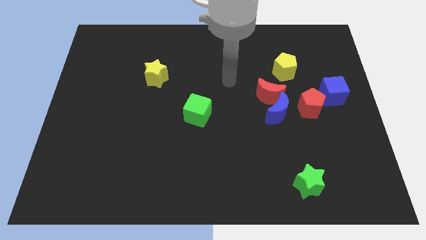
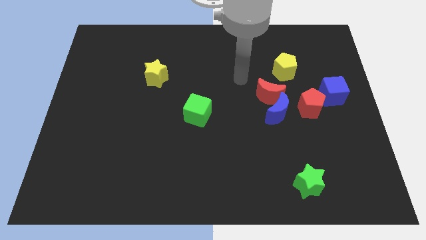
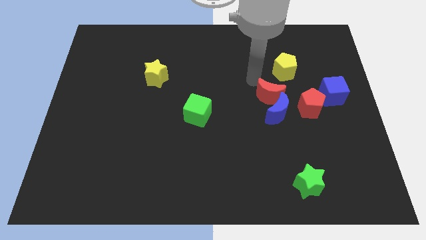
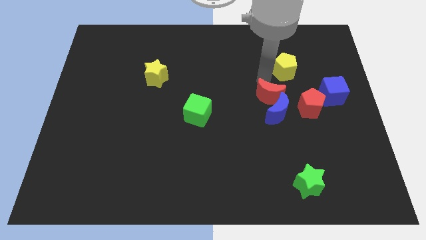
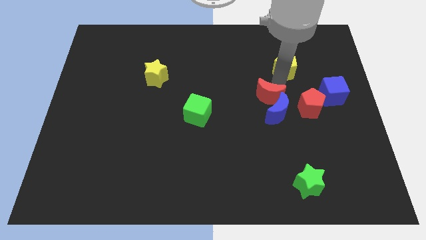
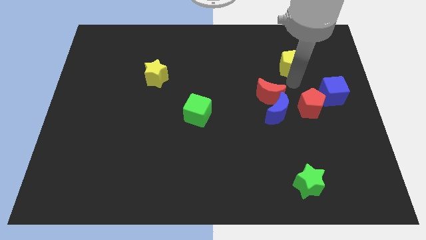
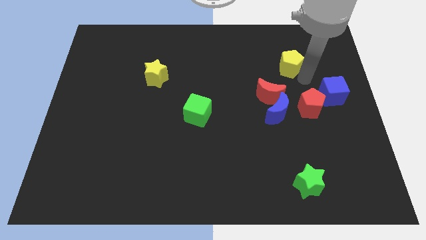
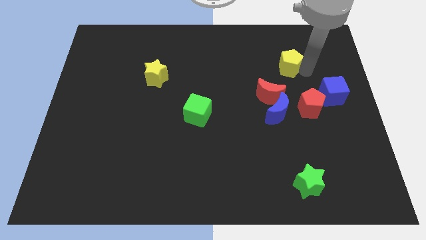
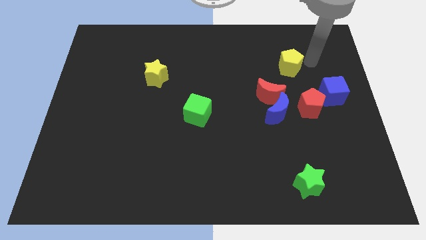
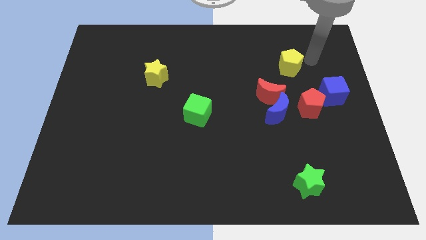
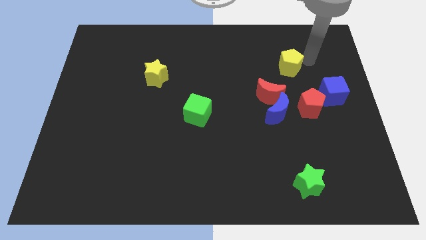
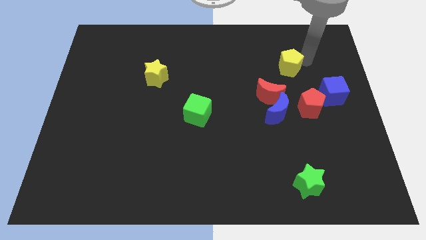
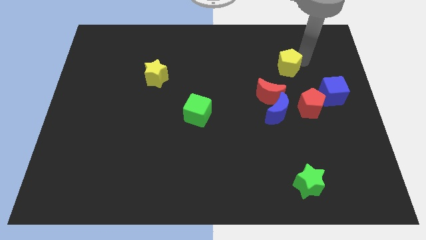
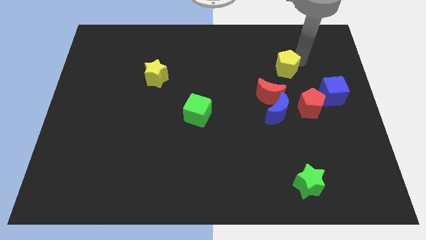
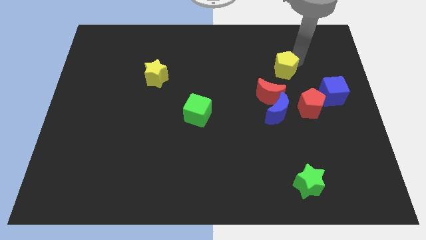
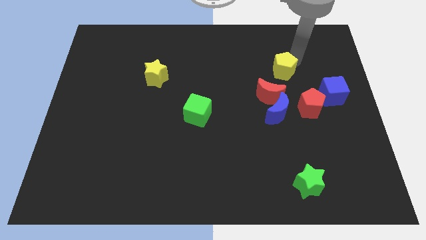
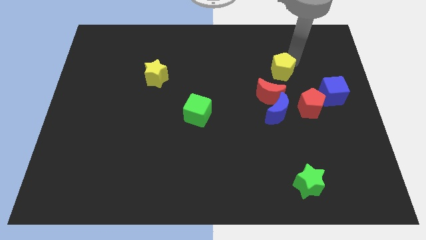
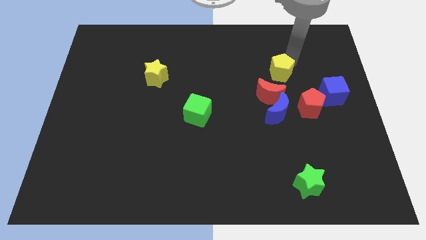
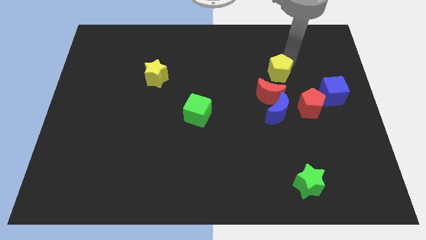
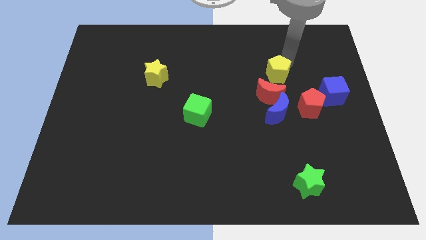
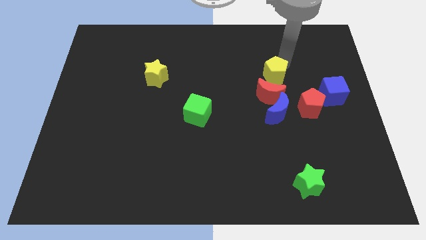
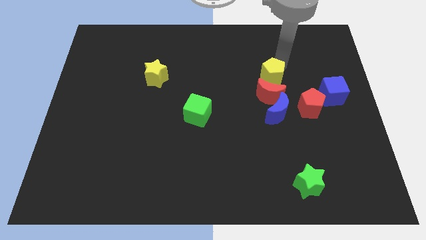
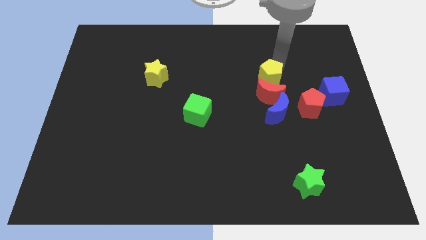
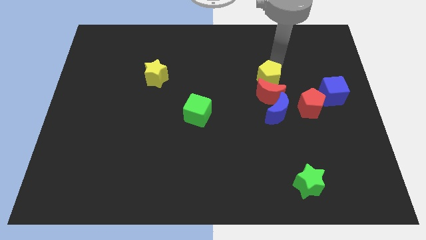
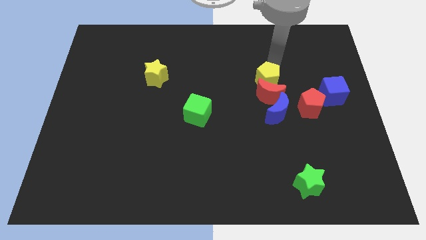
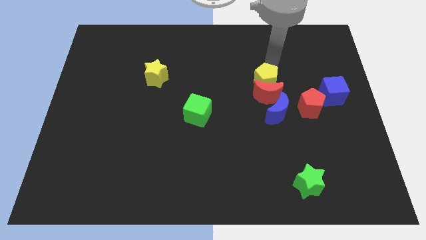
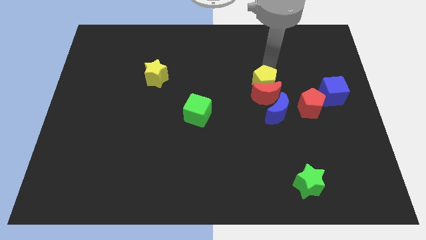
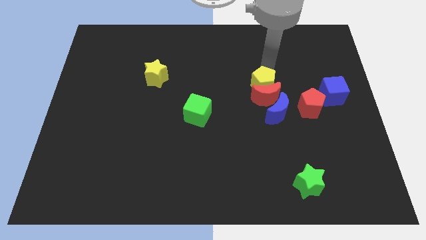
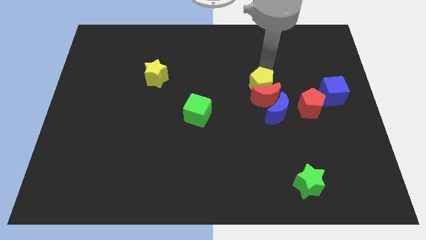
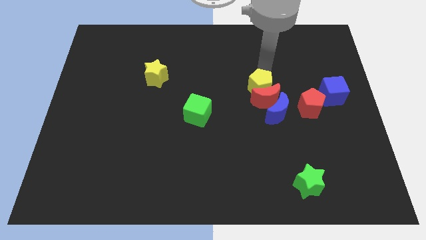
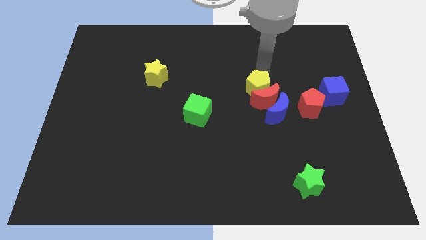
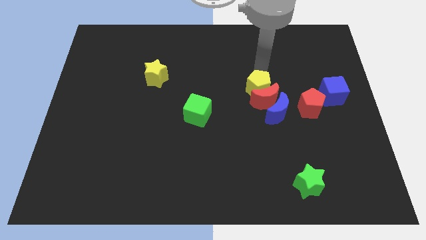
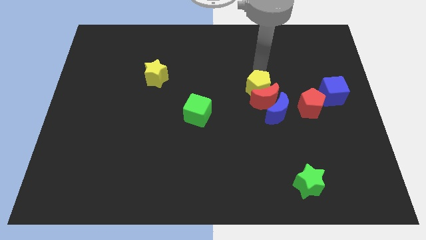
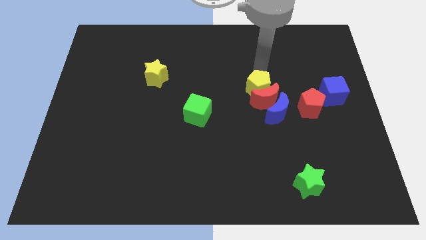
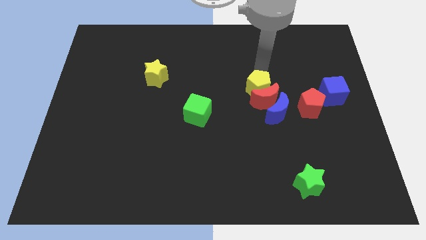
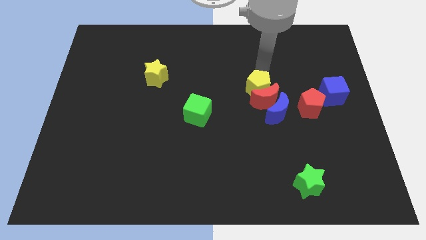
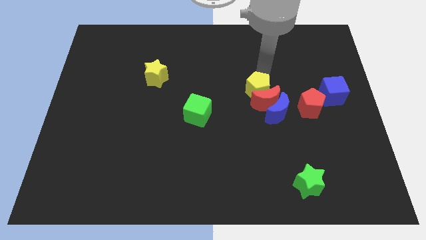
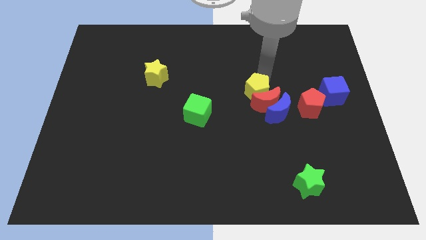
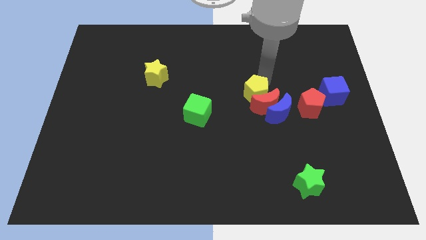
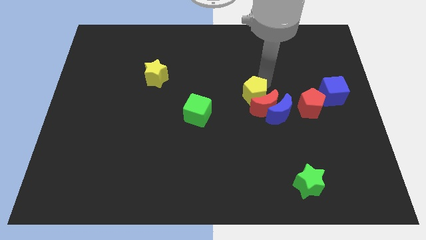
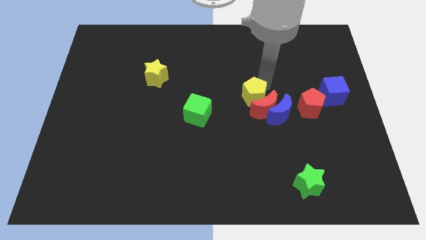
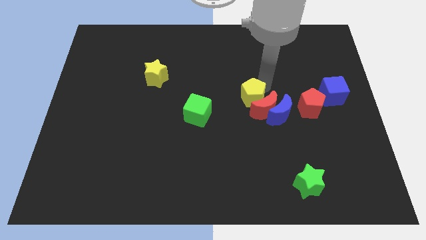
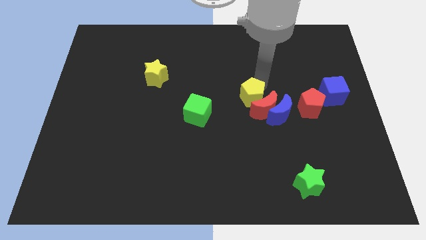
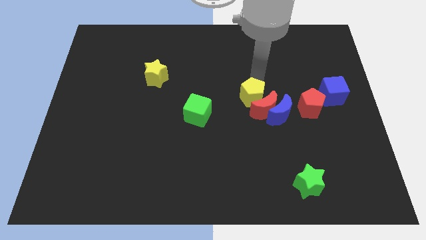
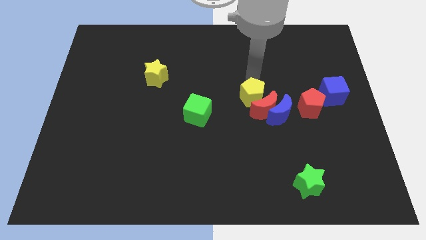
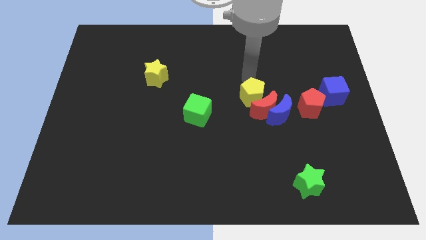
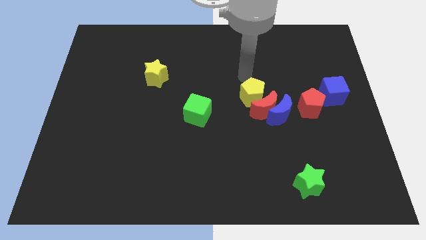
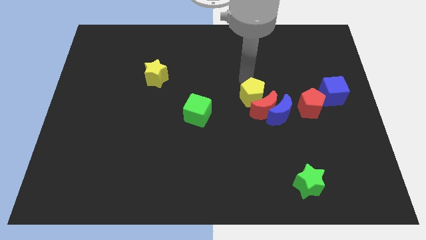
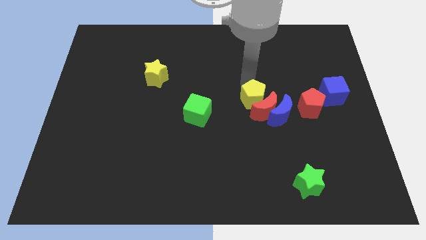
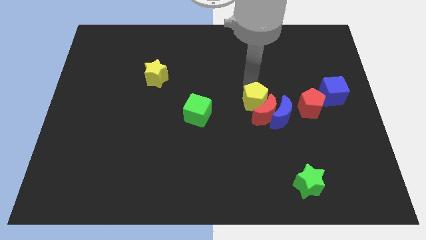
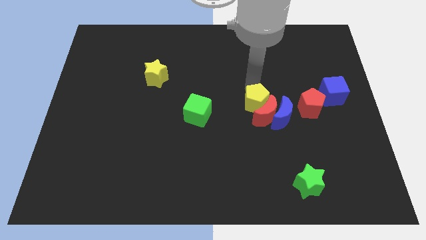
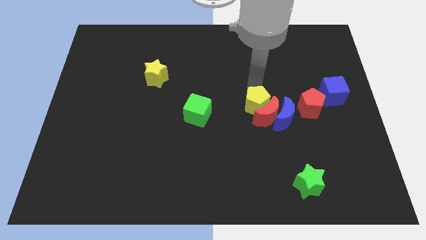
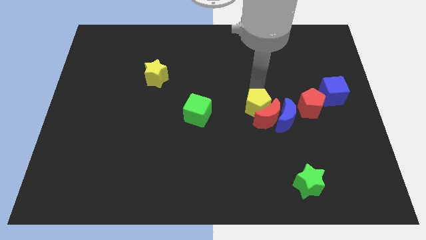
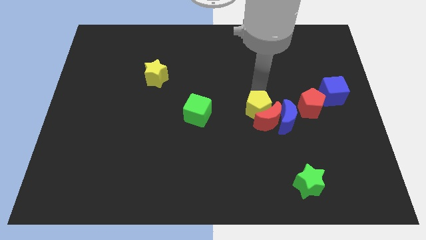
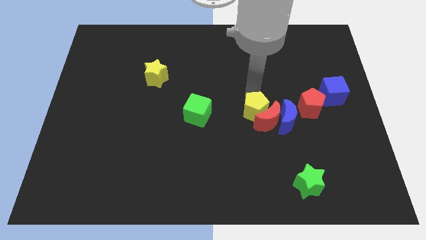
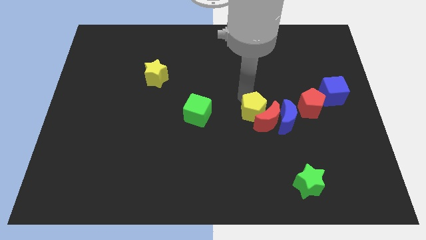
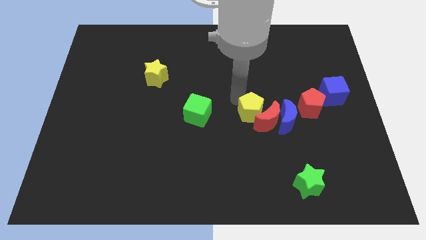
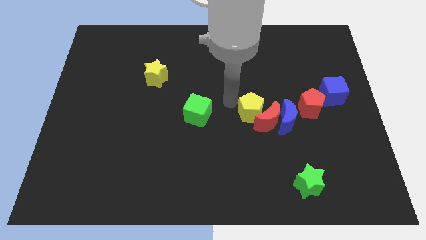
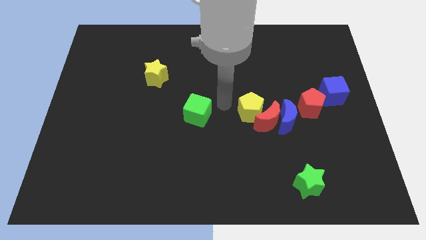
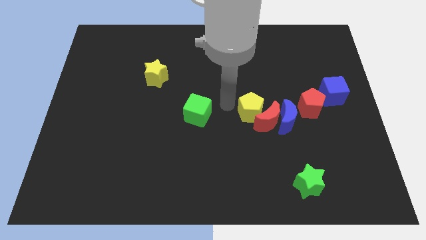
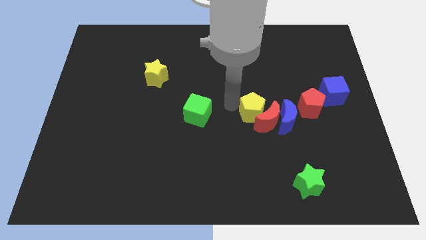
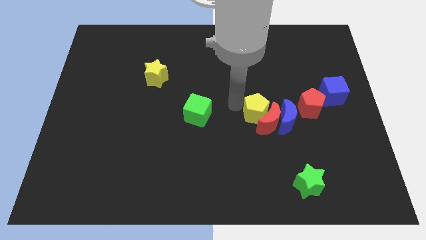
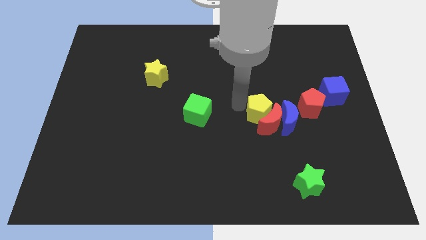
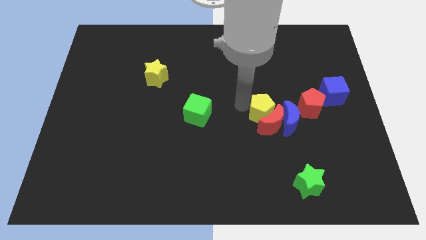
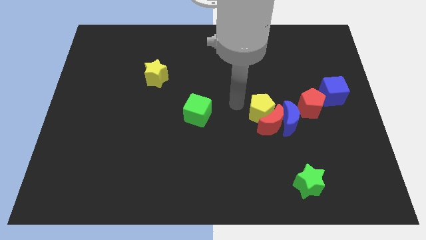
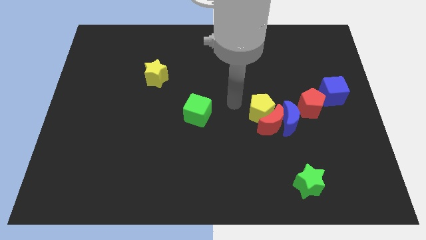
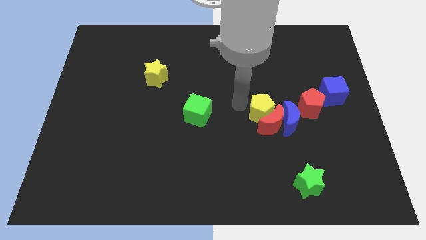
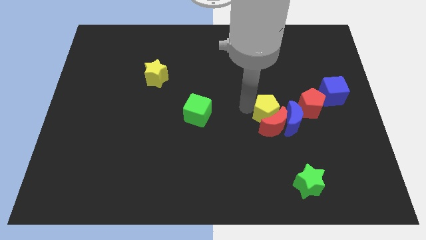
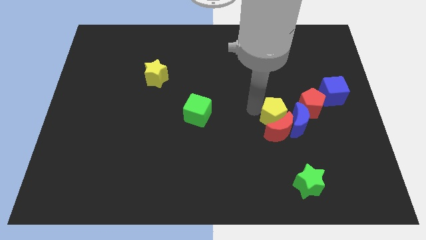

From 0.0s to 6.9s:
put the yellow pentagon to the blue moon
